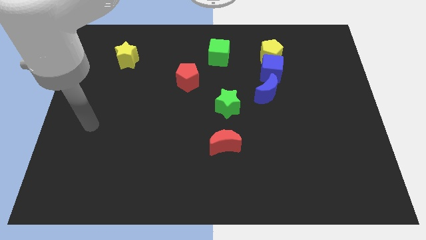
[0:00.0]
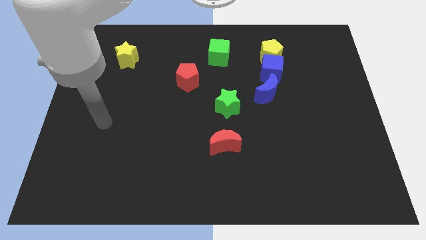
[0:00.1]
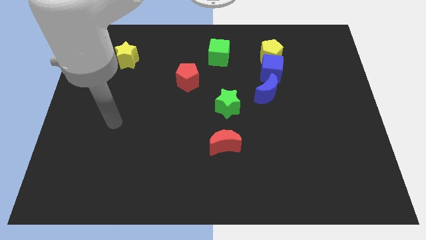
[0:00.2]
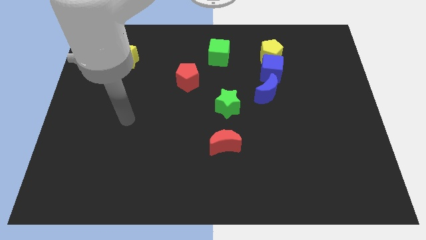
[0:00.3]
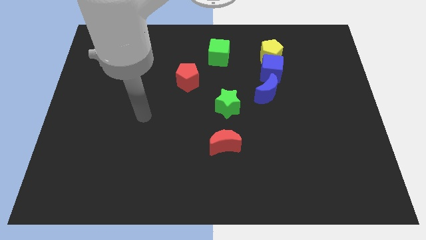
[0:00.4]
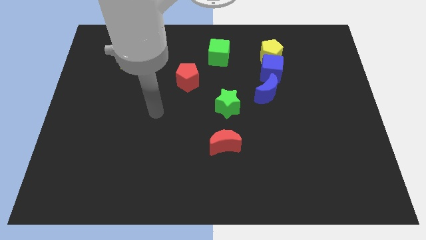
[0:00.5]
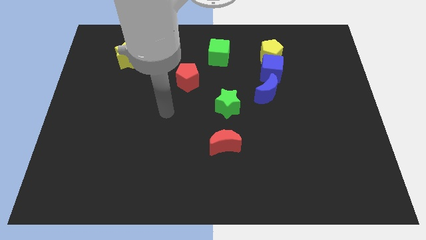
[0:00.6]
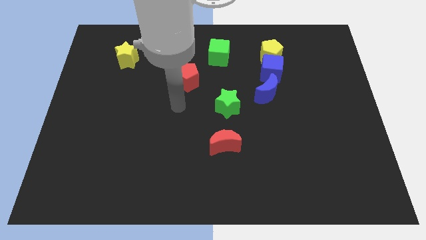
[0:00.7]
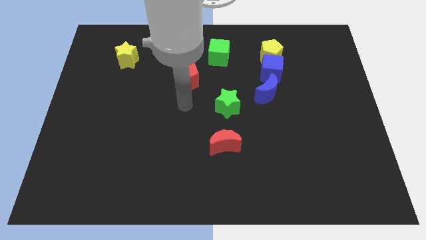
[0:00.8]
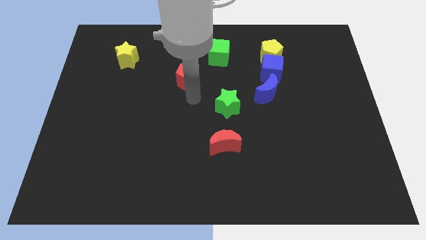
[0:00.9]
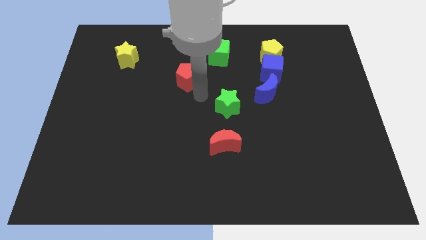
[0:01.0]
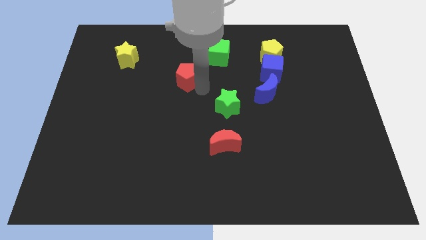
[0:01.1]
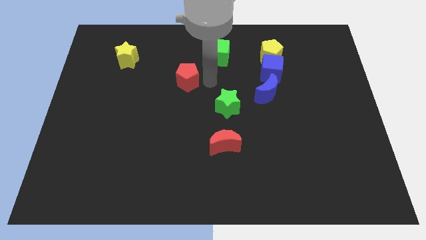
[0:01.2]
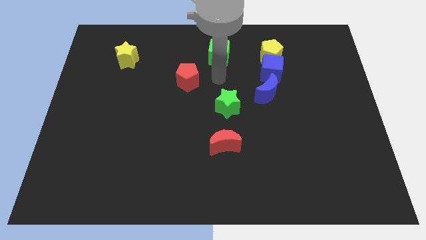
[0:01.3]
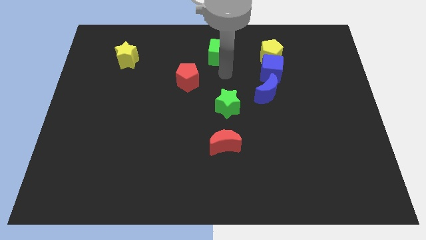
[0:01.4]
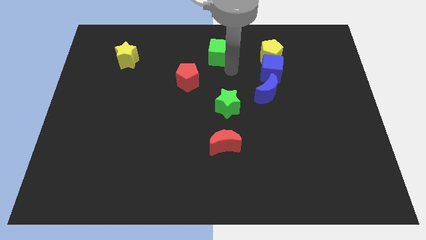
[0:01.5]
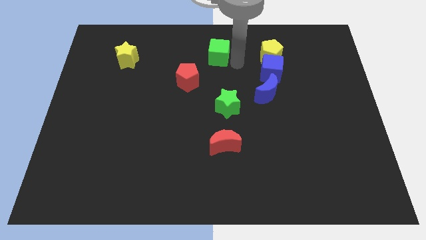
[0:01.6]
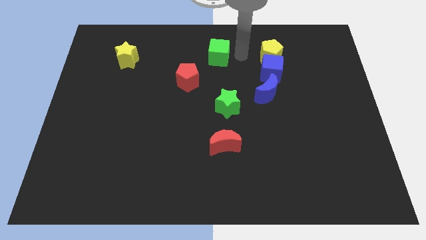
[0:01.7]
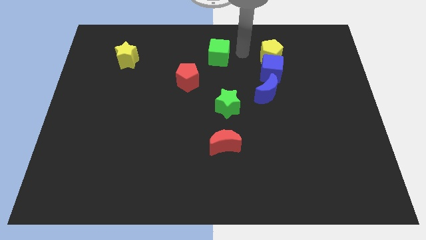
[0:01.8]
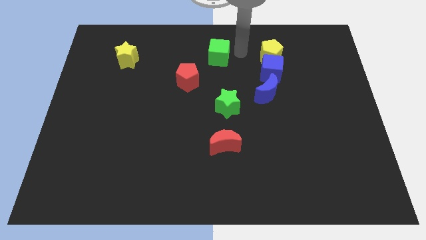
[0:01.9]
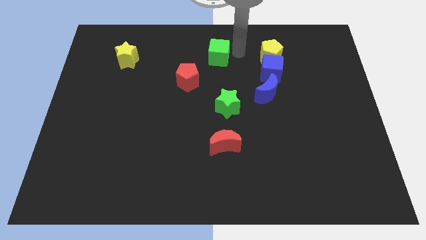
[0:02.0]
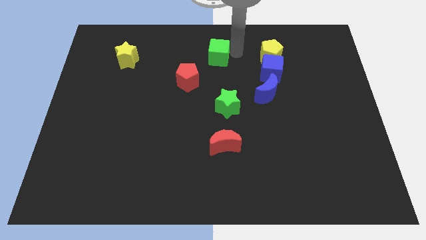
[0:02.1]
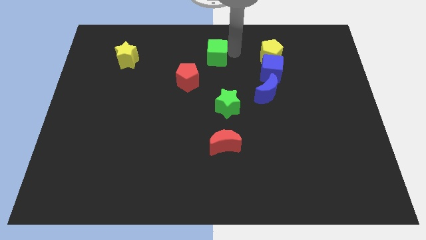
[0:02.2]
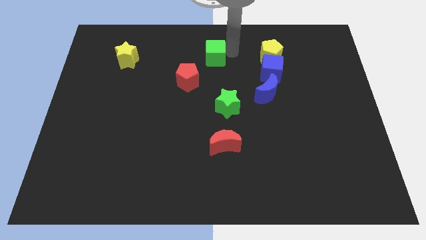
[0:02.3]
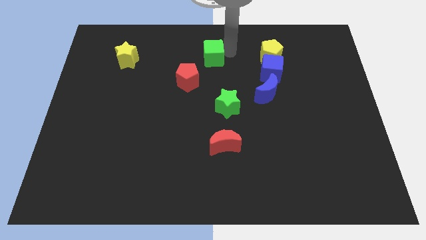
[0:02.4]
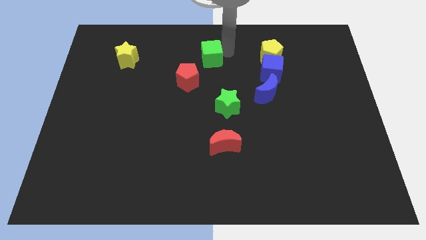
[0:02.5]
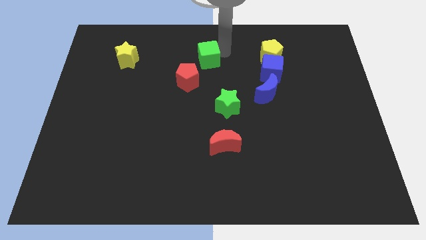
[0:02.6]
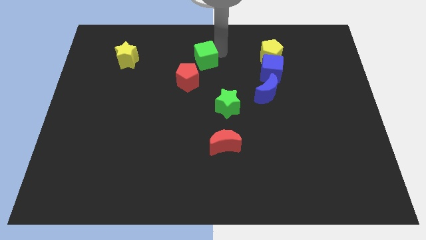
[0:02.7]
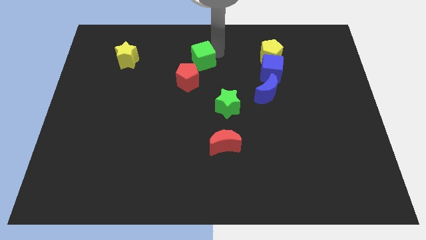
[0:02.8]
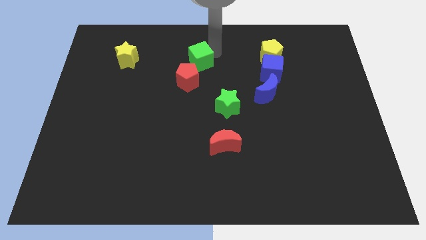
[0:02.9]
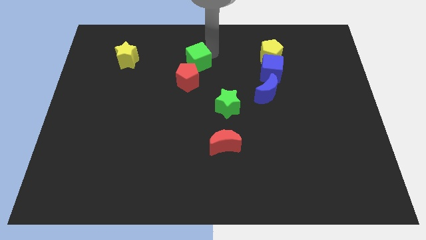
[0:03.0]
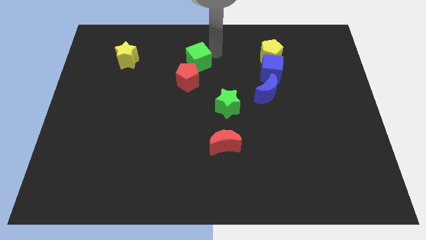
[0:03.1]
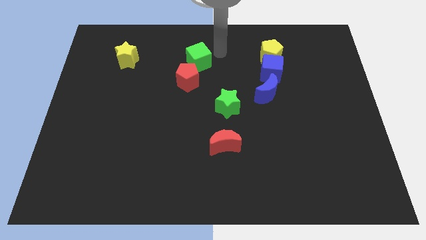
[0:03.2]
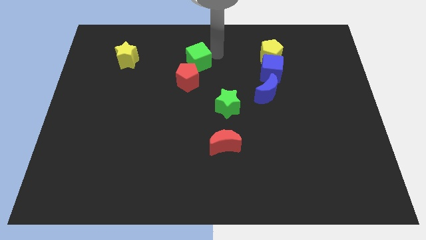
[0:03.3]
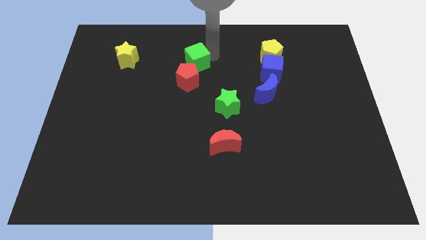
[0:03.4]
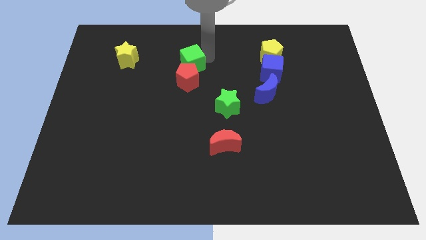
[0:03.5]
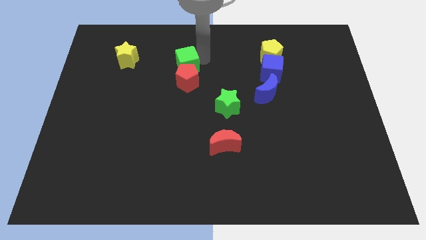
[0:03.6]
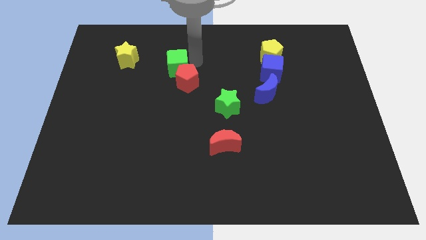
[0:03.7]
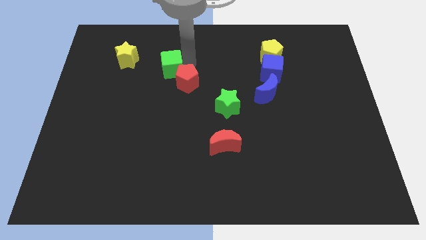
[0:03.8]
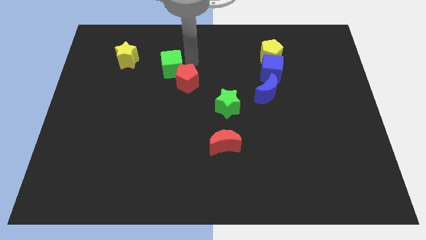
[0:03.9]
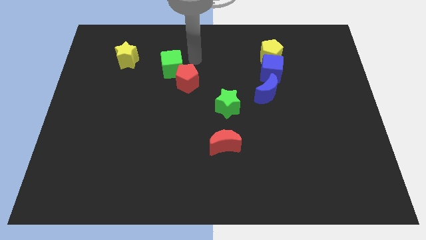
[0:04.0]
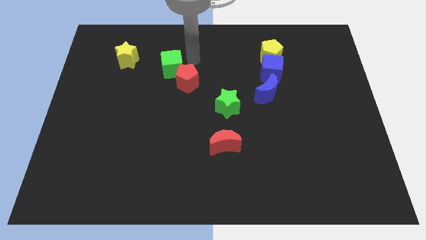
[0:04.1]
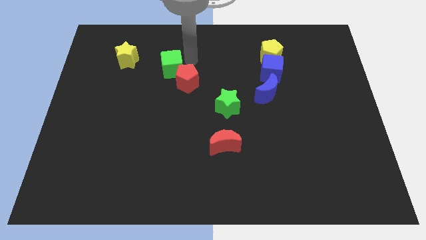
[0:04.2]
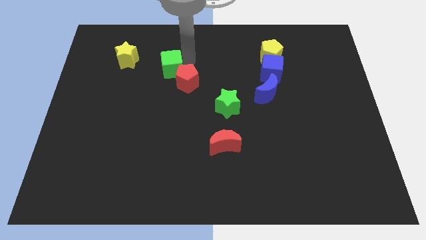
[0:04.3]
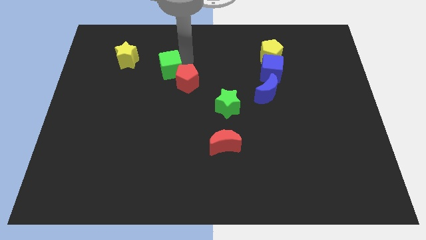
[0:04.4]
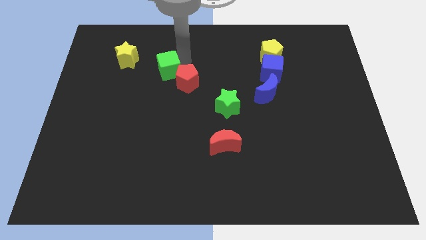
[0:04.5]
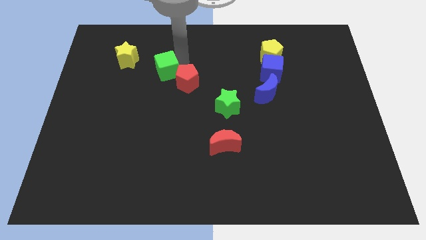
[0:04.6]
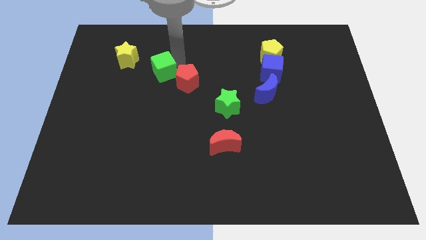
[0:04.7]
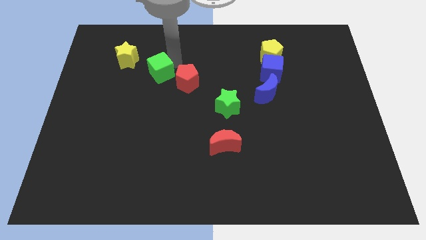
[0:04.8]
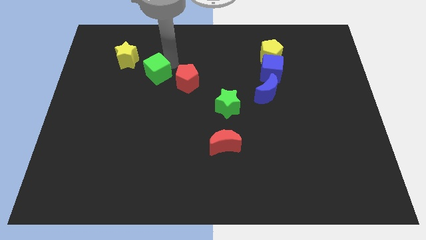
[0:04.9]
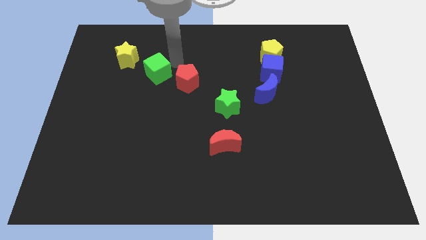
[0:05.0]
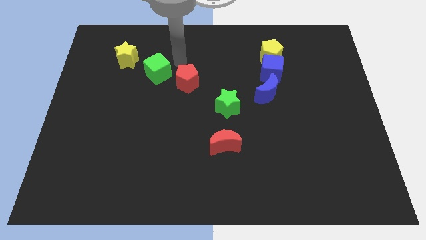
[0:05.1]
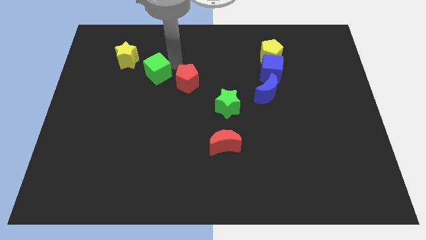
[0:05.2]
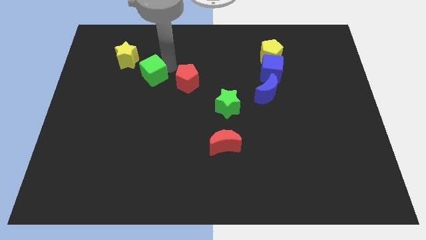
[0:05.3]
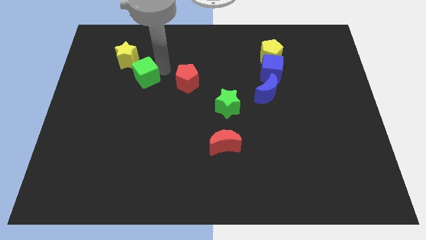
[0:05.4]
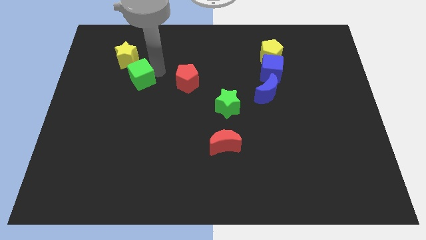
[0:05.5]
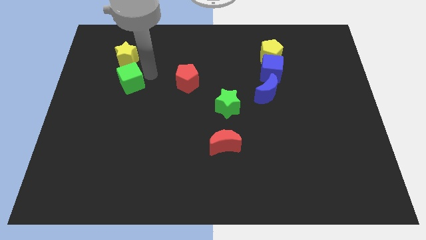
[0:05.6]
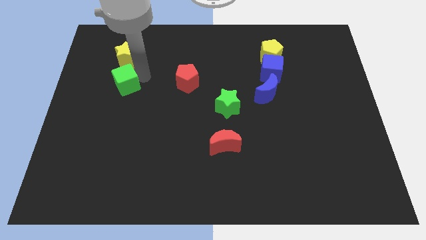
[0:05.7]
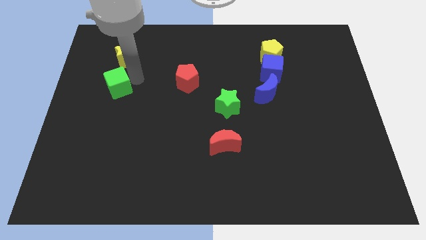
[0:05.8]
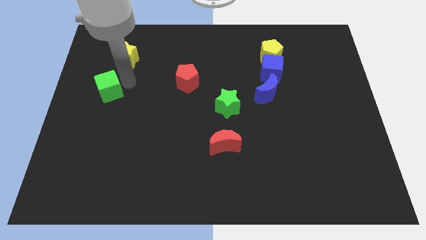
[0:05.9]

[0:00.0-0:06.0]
slide the green cube to the center left

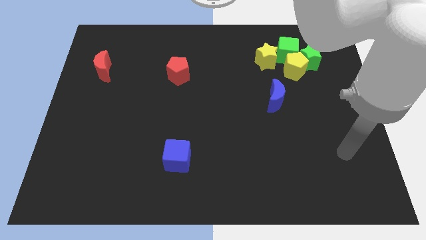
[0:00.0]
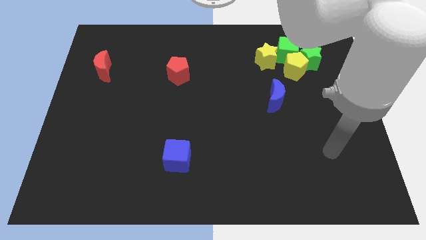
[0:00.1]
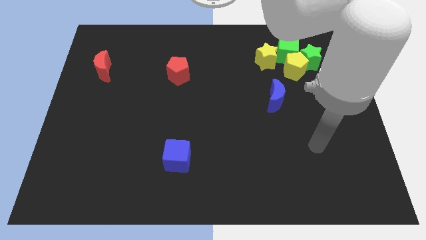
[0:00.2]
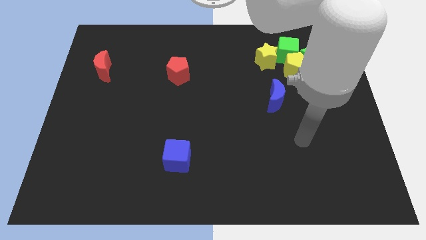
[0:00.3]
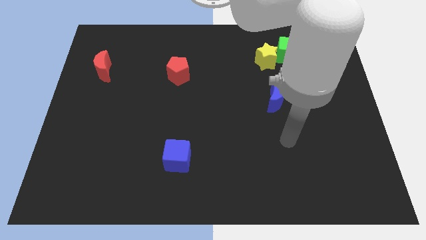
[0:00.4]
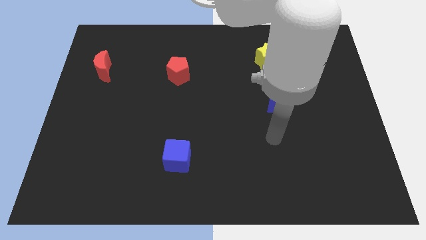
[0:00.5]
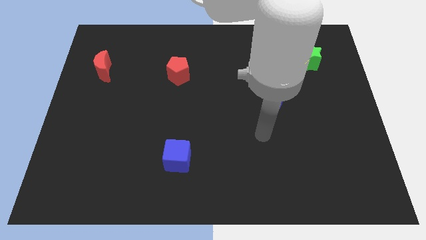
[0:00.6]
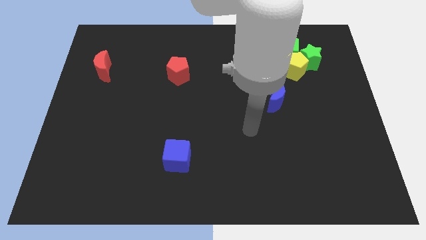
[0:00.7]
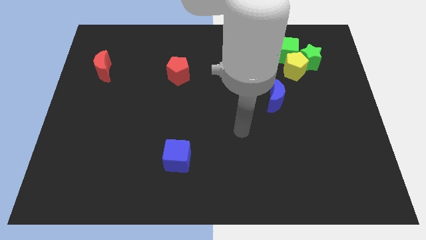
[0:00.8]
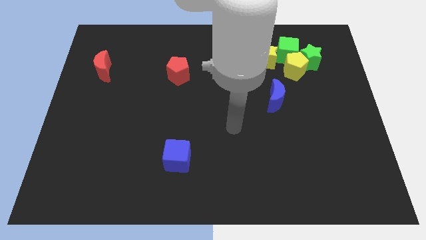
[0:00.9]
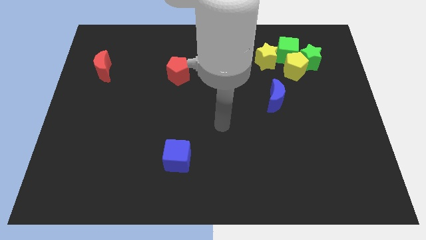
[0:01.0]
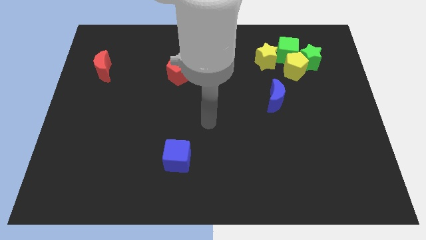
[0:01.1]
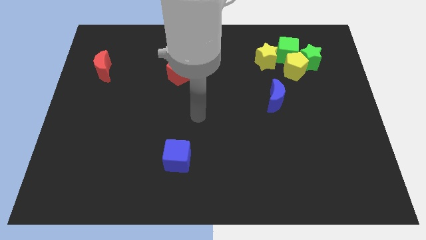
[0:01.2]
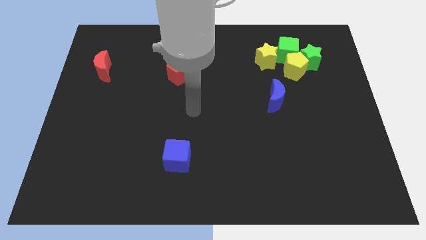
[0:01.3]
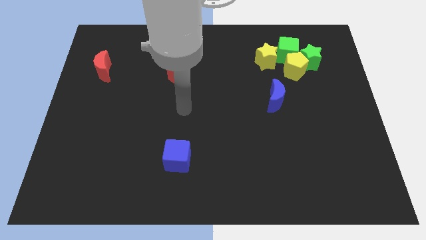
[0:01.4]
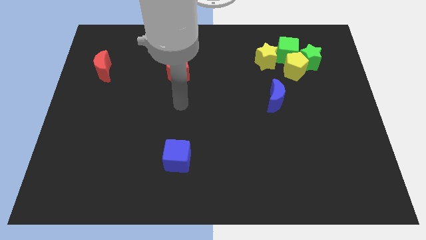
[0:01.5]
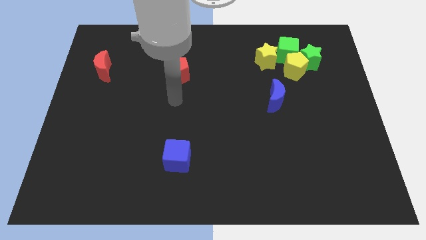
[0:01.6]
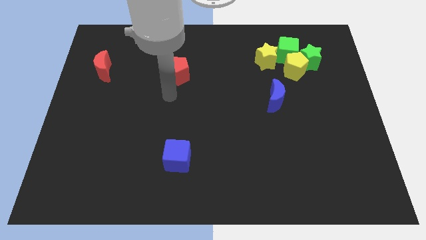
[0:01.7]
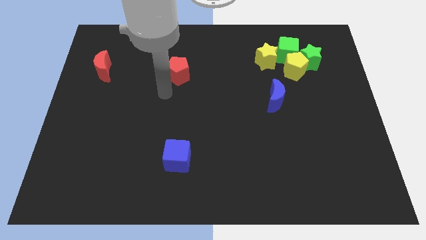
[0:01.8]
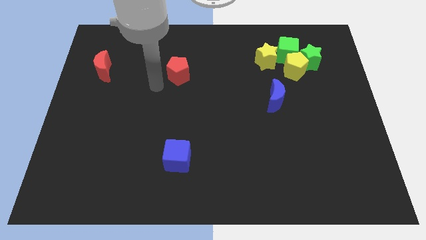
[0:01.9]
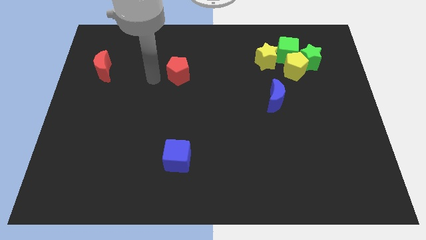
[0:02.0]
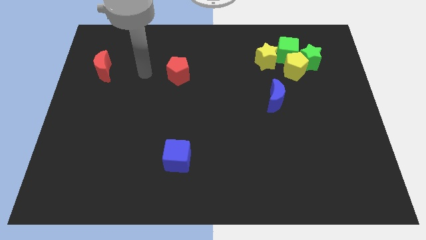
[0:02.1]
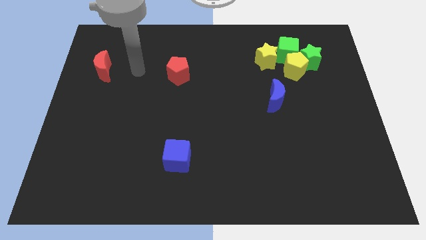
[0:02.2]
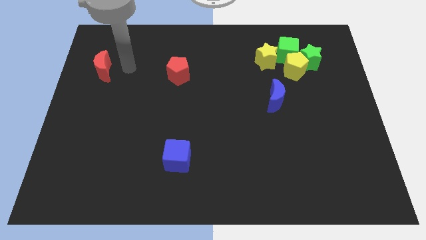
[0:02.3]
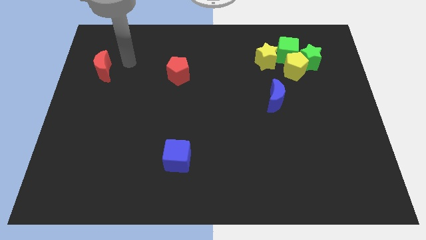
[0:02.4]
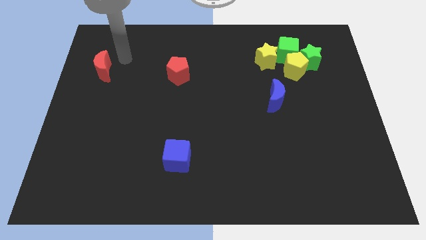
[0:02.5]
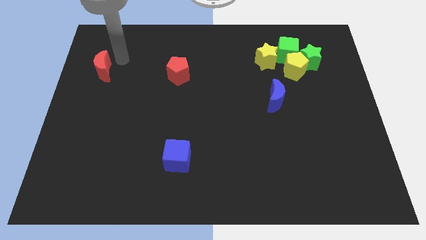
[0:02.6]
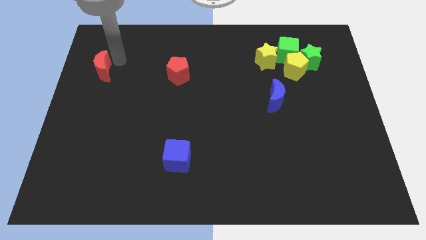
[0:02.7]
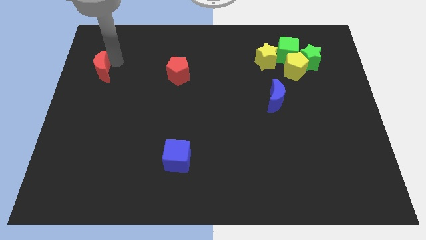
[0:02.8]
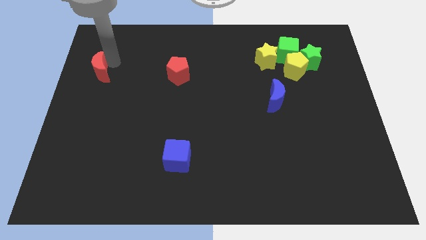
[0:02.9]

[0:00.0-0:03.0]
slide the red moon to the left side of the board
